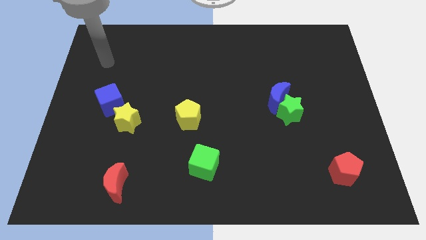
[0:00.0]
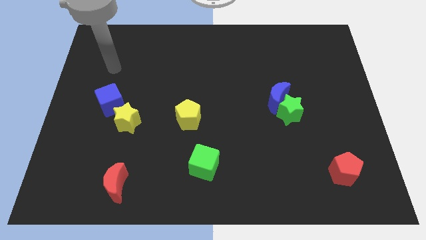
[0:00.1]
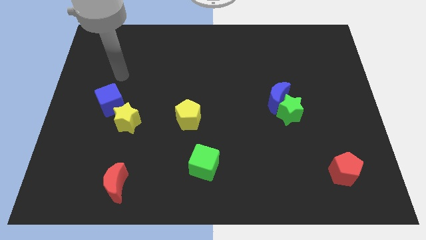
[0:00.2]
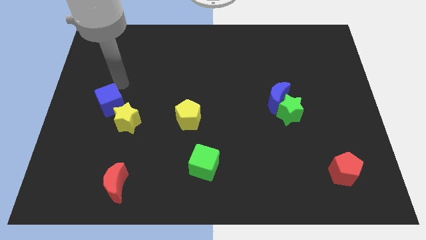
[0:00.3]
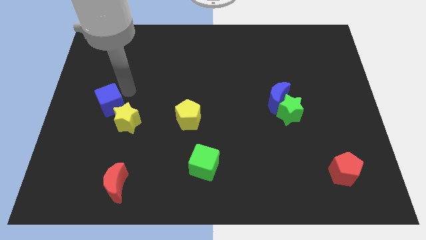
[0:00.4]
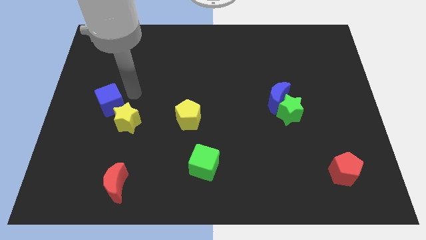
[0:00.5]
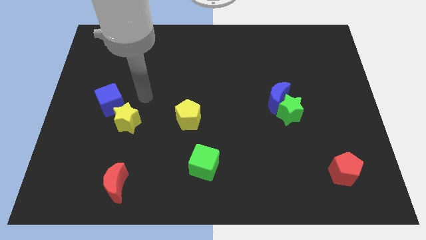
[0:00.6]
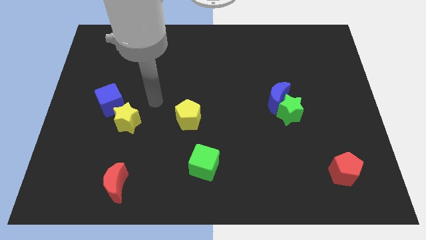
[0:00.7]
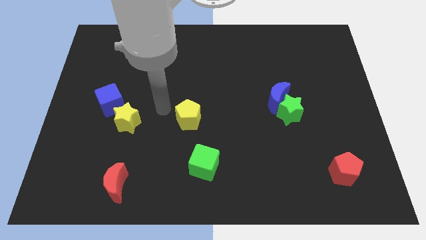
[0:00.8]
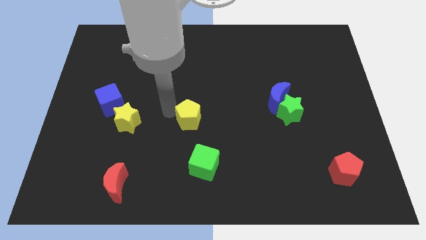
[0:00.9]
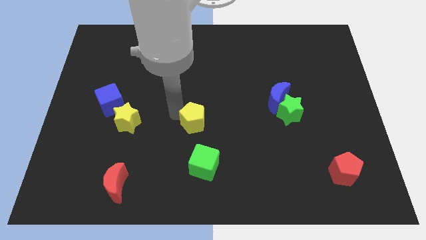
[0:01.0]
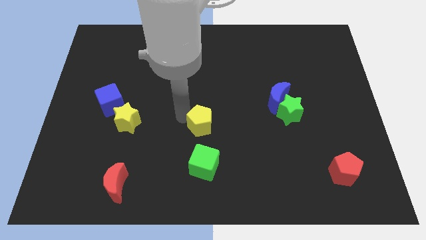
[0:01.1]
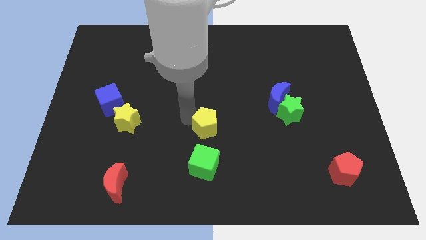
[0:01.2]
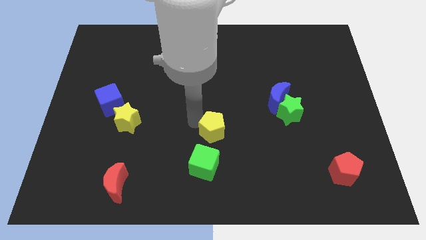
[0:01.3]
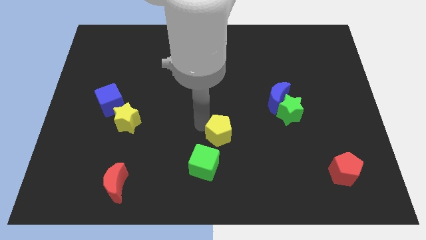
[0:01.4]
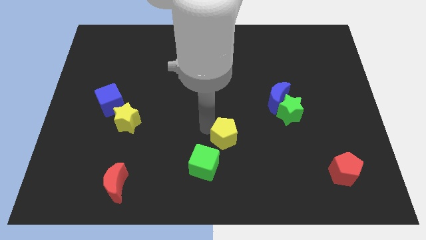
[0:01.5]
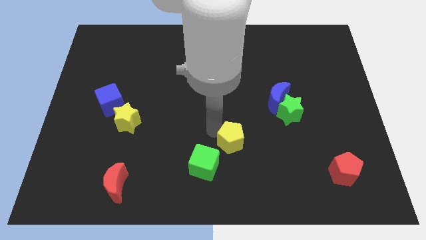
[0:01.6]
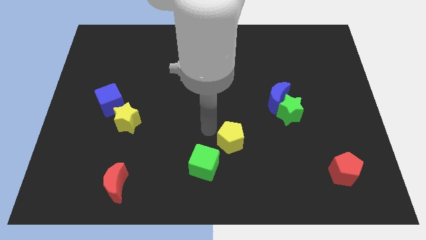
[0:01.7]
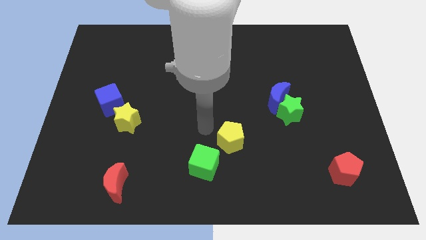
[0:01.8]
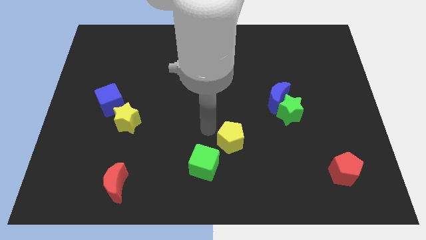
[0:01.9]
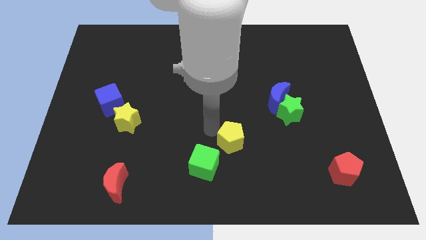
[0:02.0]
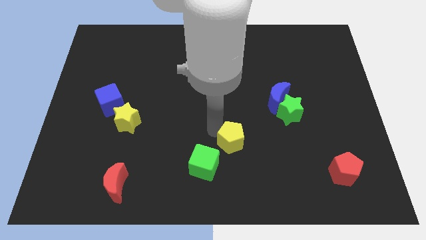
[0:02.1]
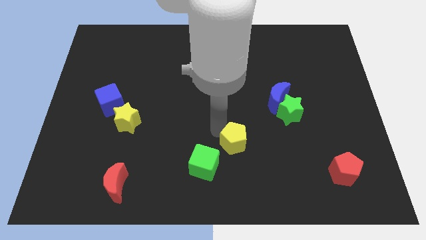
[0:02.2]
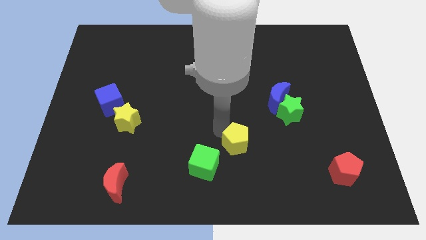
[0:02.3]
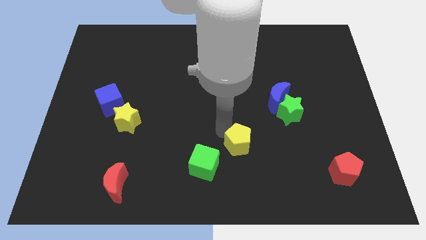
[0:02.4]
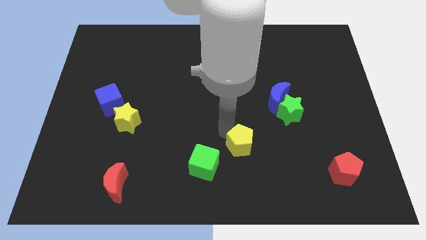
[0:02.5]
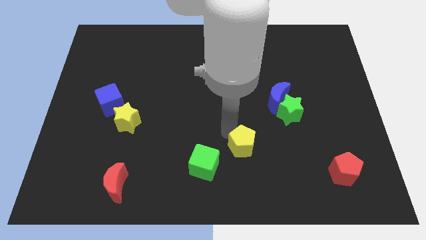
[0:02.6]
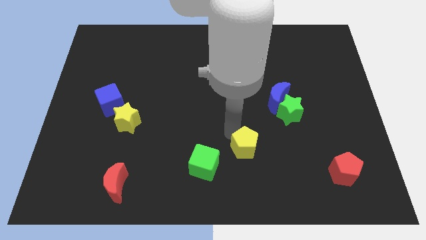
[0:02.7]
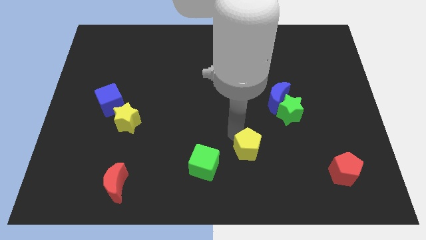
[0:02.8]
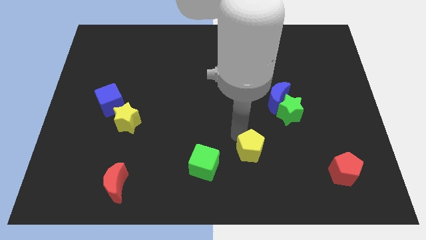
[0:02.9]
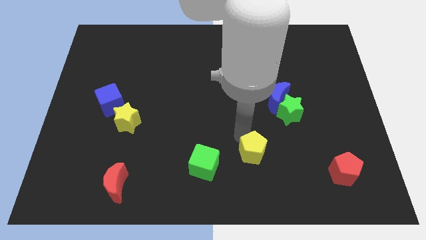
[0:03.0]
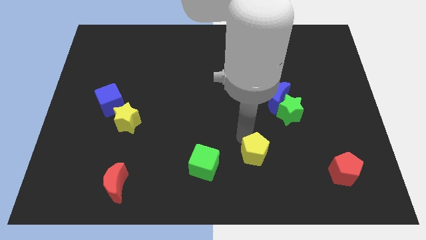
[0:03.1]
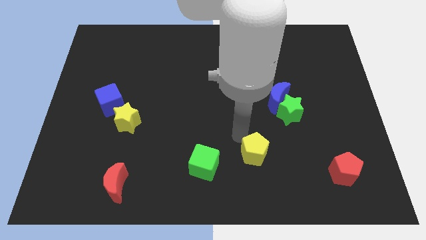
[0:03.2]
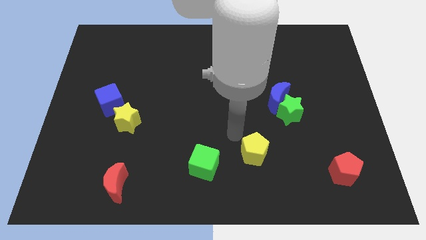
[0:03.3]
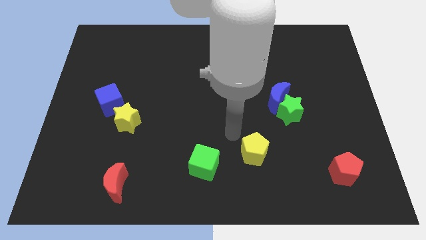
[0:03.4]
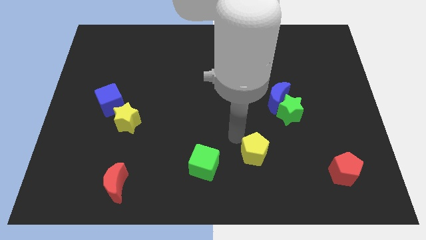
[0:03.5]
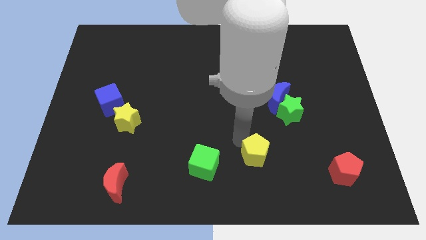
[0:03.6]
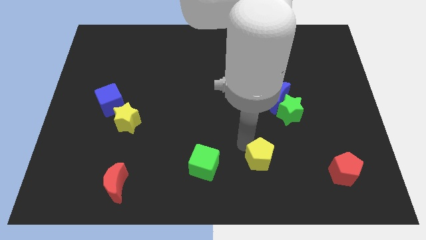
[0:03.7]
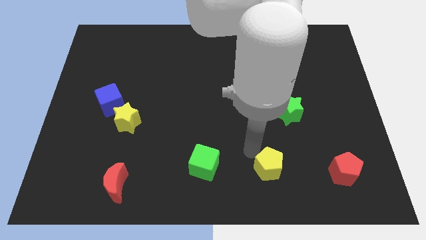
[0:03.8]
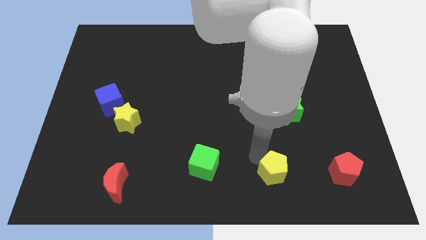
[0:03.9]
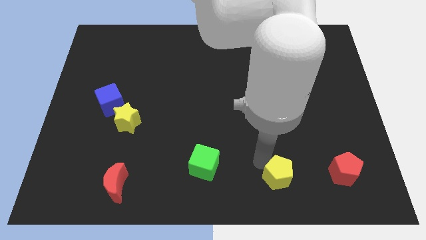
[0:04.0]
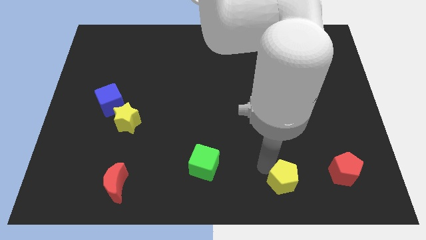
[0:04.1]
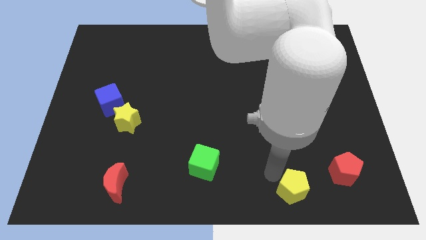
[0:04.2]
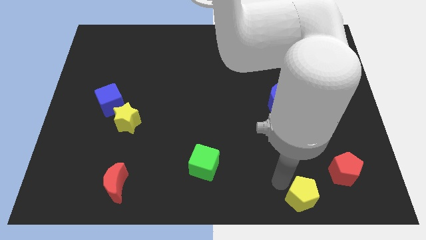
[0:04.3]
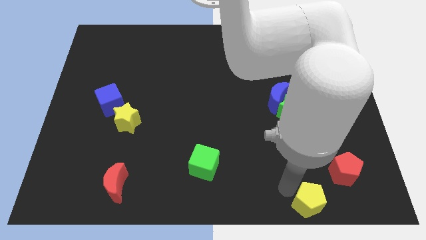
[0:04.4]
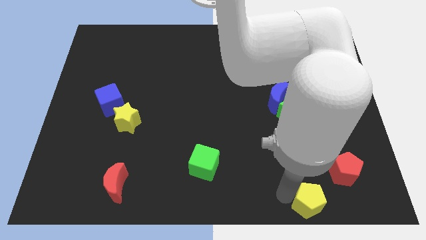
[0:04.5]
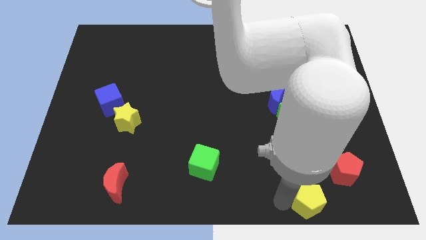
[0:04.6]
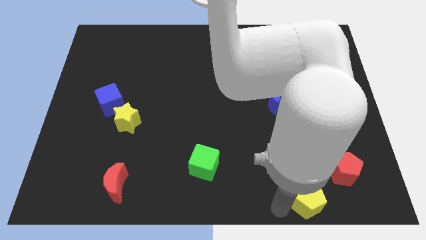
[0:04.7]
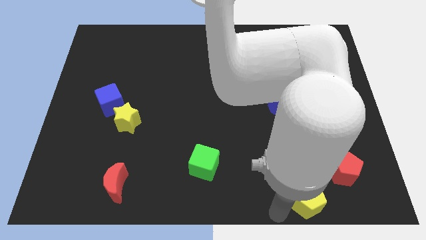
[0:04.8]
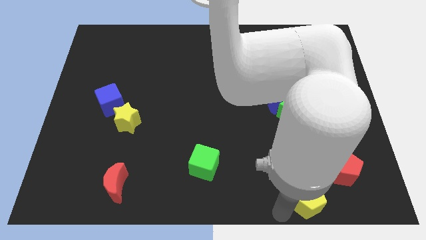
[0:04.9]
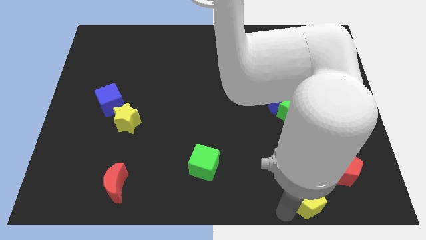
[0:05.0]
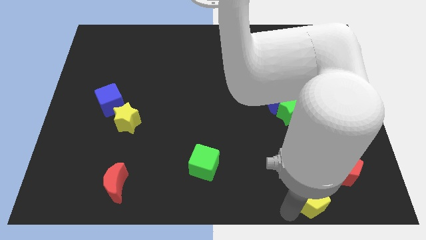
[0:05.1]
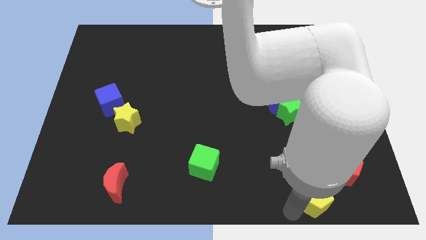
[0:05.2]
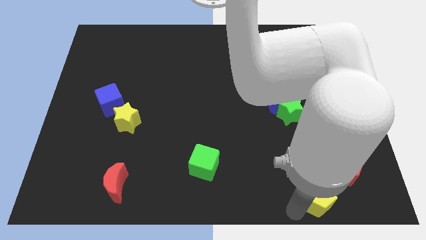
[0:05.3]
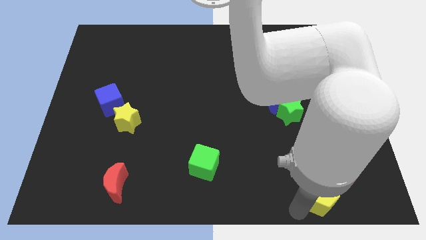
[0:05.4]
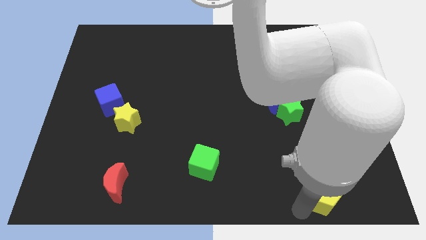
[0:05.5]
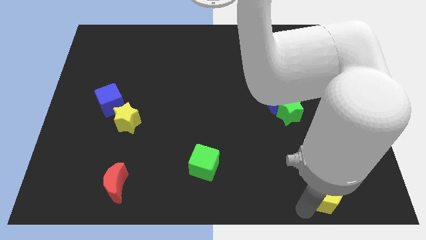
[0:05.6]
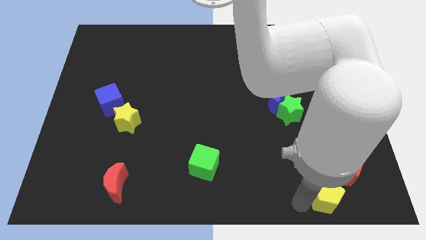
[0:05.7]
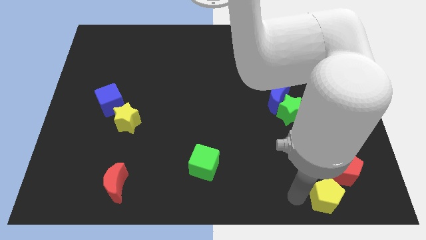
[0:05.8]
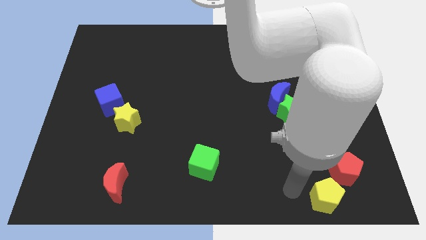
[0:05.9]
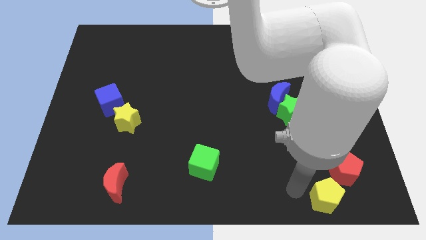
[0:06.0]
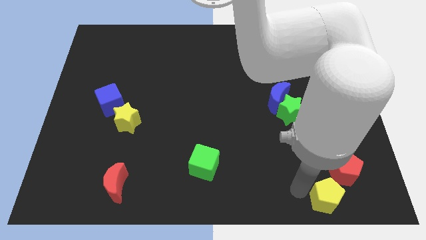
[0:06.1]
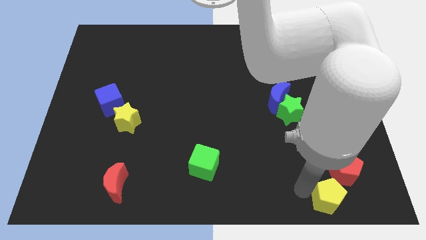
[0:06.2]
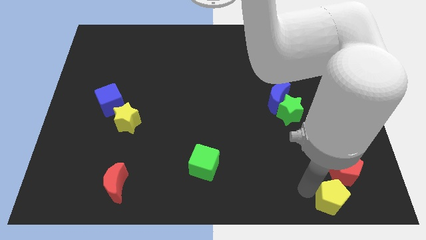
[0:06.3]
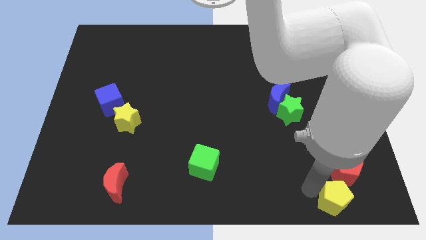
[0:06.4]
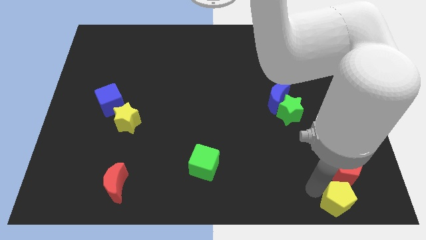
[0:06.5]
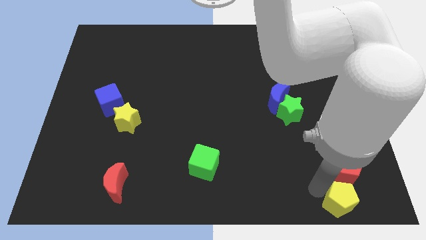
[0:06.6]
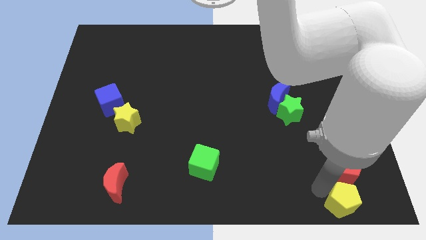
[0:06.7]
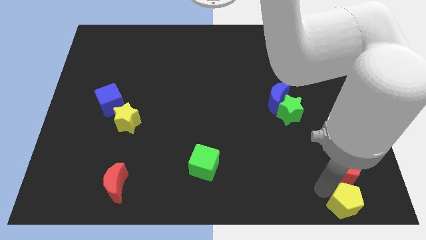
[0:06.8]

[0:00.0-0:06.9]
push the yellow pentagon to the lower right corner

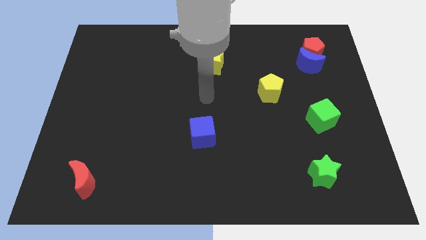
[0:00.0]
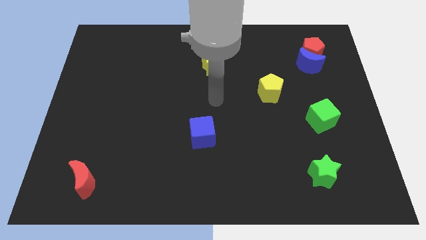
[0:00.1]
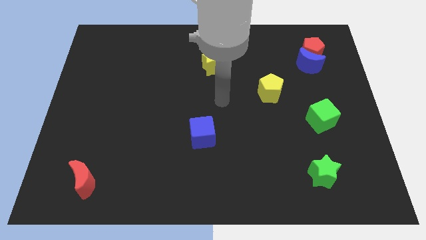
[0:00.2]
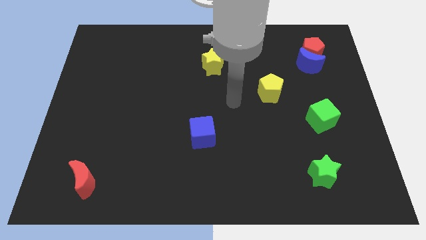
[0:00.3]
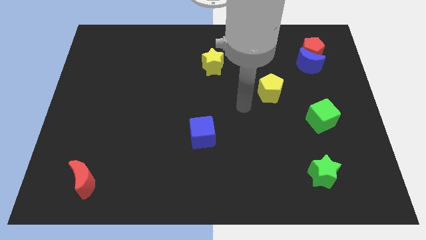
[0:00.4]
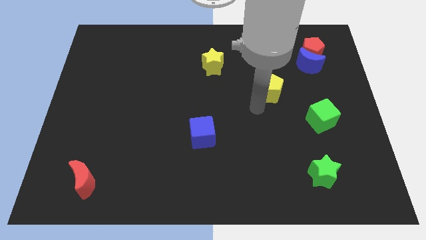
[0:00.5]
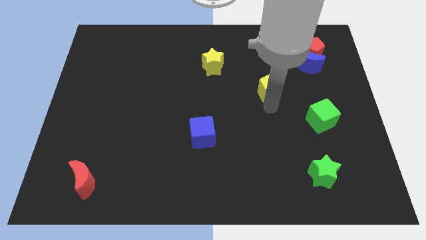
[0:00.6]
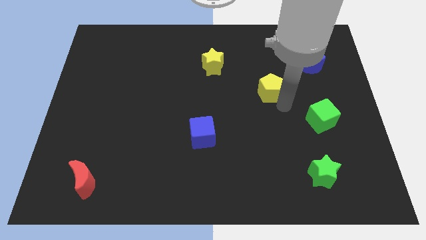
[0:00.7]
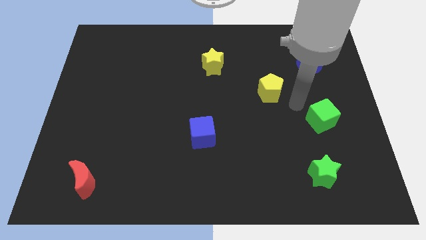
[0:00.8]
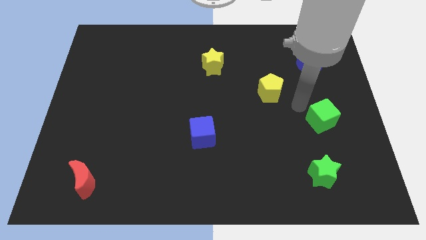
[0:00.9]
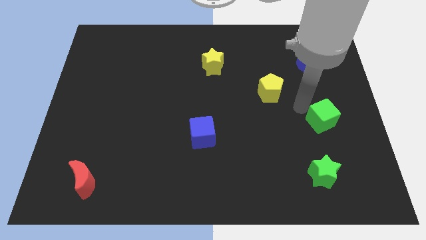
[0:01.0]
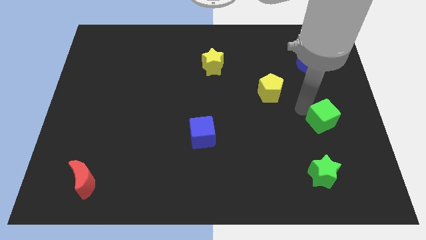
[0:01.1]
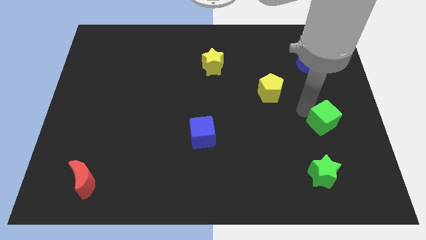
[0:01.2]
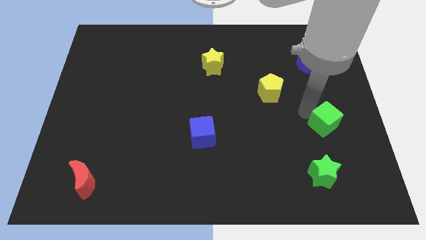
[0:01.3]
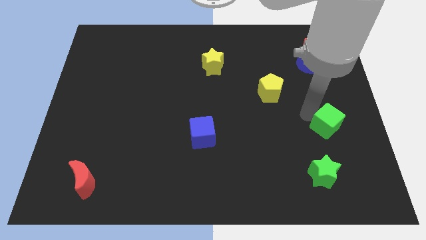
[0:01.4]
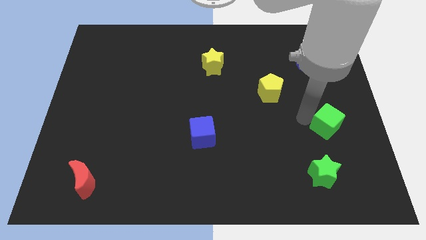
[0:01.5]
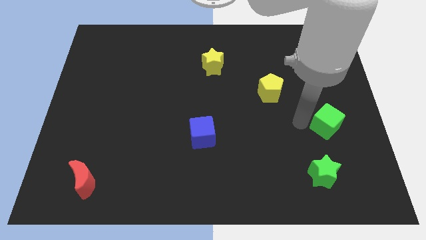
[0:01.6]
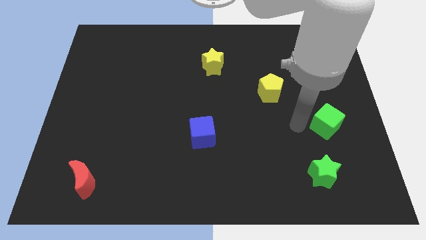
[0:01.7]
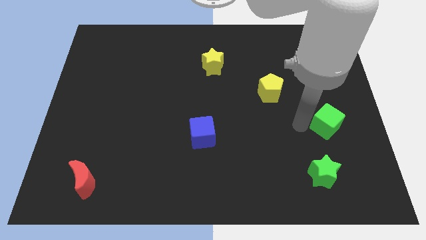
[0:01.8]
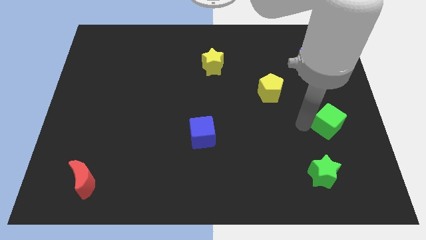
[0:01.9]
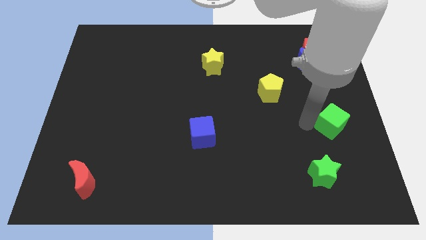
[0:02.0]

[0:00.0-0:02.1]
put the green cube to the right side
